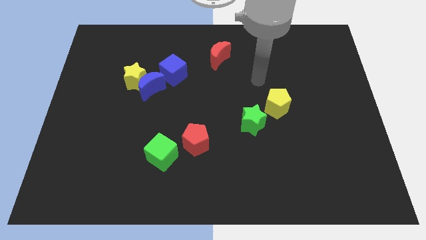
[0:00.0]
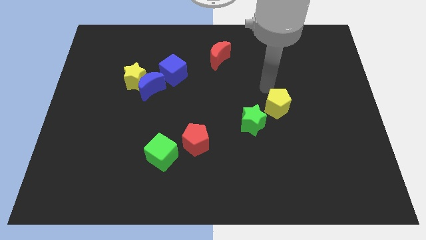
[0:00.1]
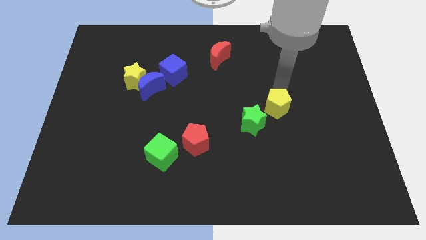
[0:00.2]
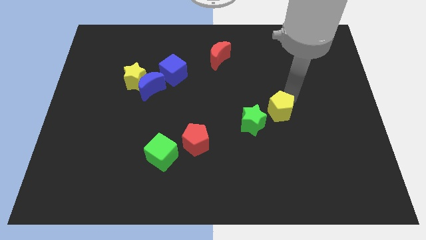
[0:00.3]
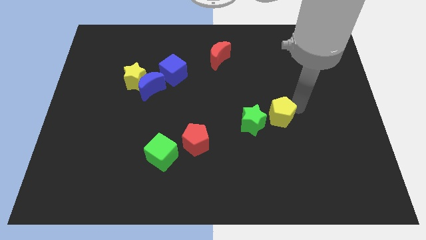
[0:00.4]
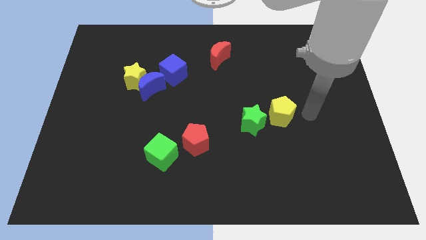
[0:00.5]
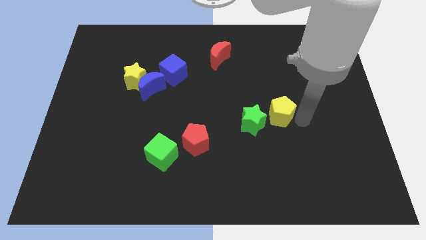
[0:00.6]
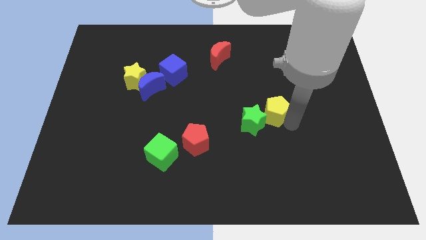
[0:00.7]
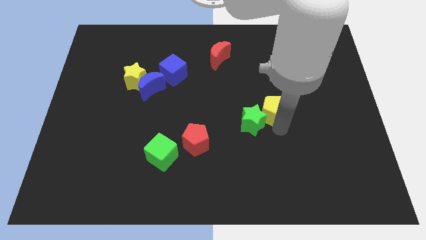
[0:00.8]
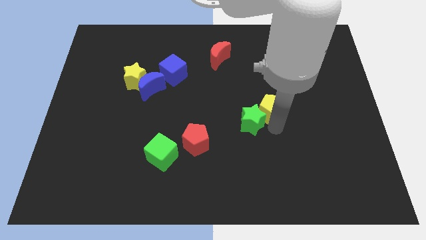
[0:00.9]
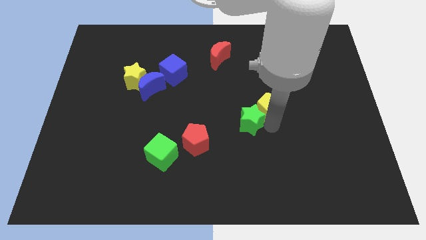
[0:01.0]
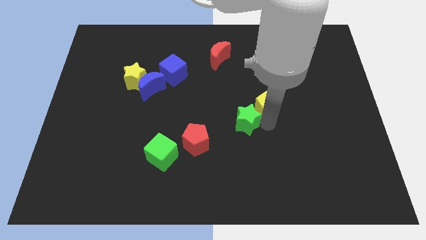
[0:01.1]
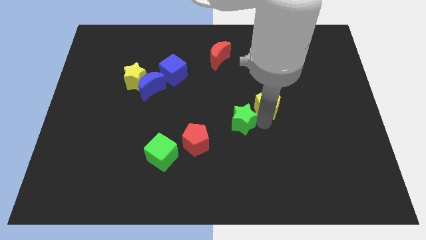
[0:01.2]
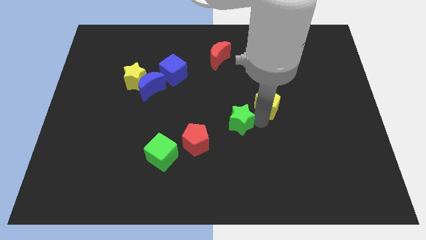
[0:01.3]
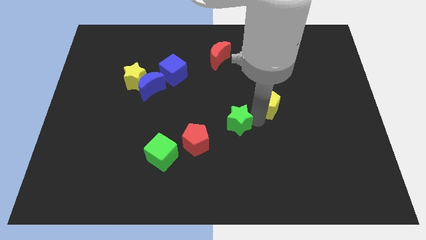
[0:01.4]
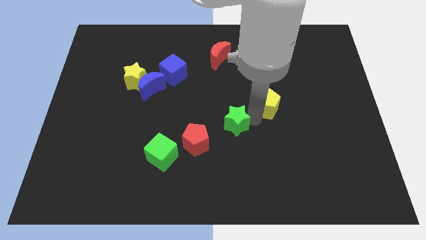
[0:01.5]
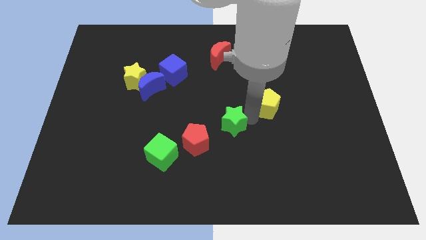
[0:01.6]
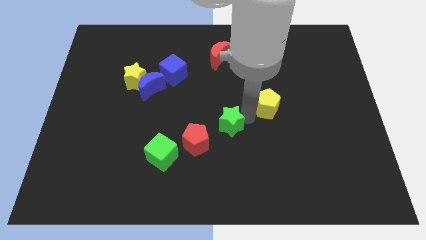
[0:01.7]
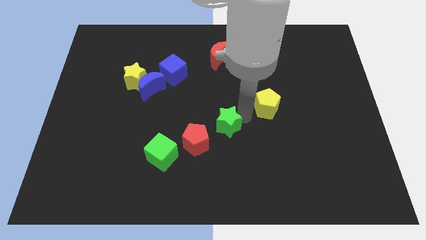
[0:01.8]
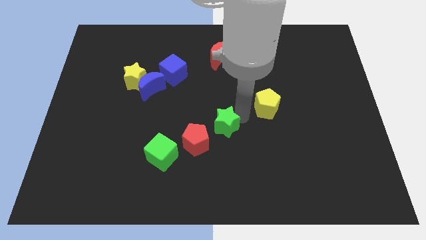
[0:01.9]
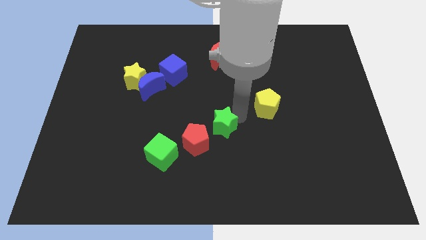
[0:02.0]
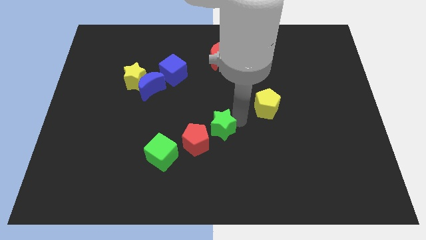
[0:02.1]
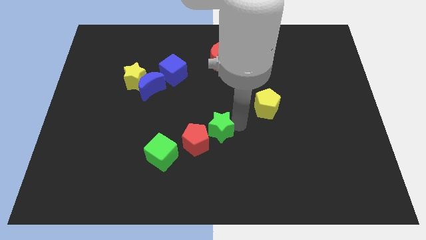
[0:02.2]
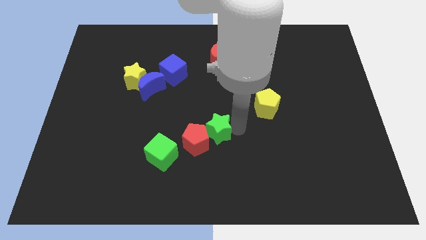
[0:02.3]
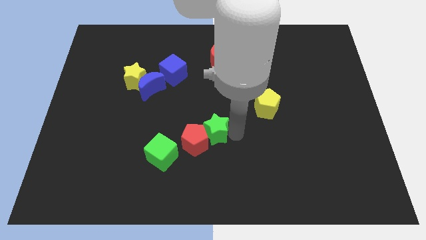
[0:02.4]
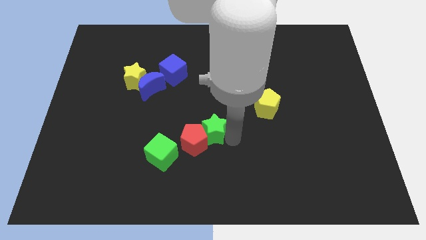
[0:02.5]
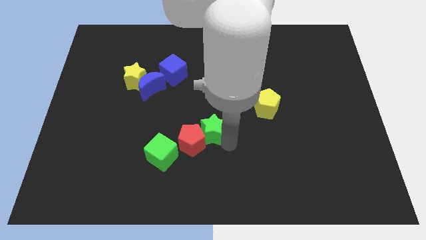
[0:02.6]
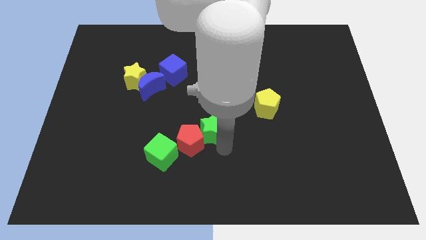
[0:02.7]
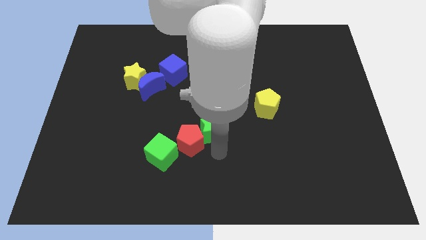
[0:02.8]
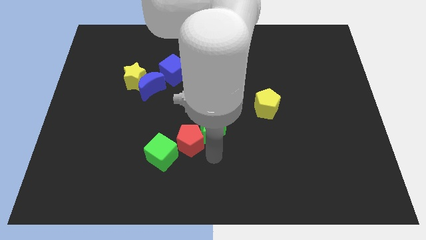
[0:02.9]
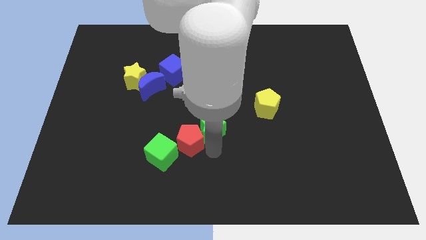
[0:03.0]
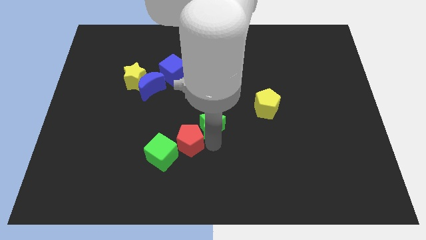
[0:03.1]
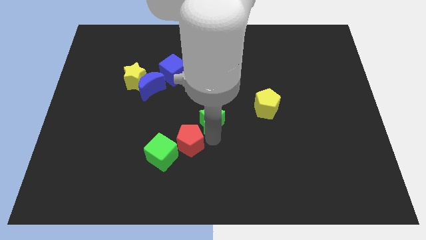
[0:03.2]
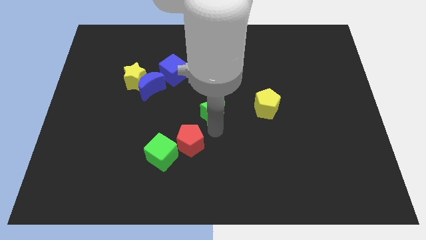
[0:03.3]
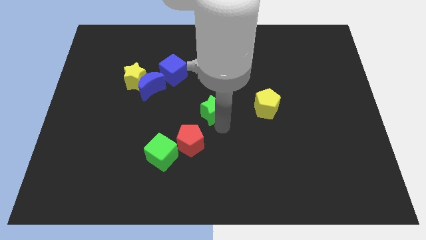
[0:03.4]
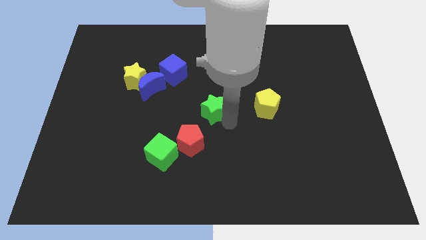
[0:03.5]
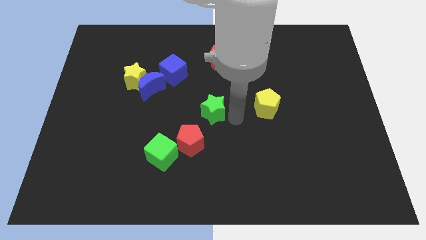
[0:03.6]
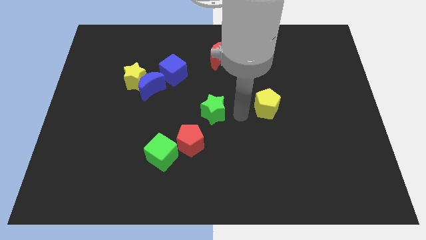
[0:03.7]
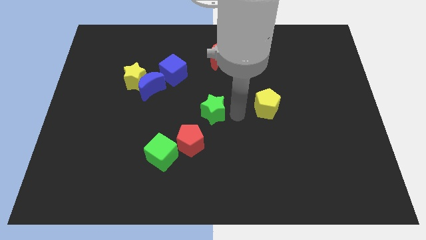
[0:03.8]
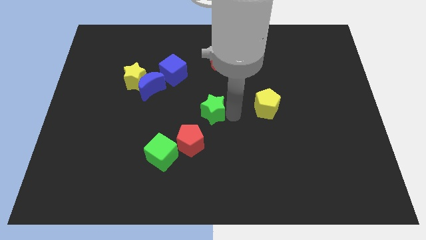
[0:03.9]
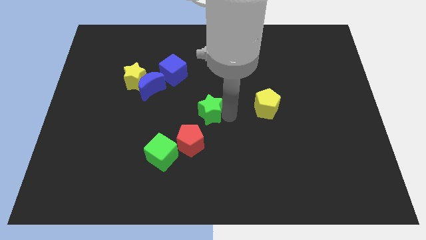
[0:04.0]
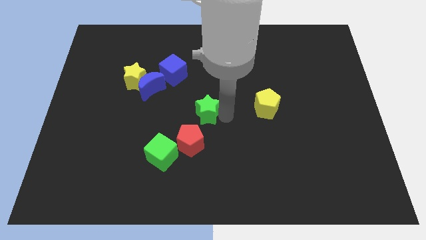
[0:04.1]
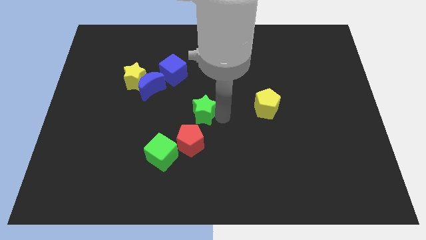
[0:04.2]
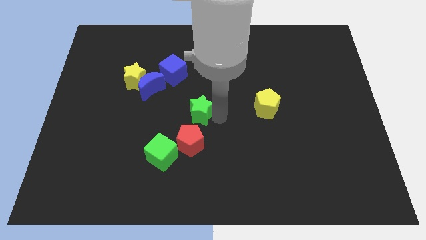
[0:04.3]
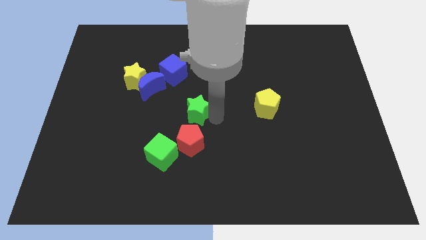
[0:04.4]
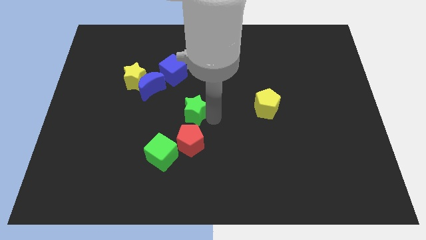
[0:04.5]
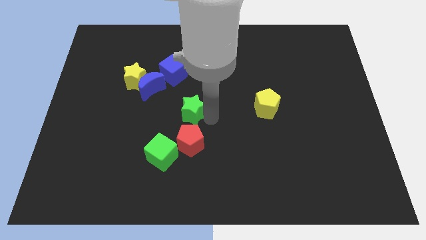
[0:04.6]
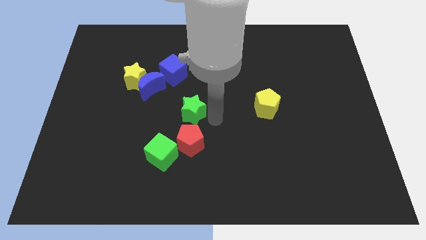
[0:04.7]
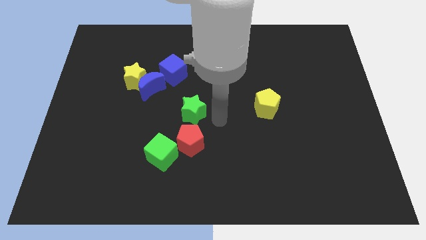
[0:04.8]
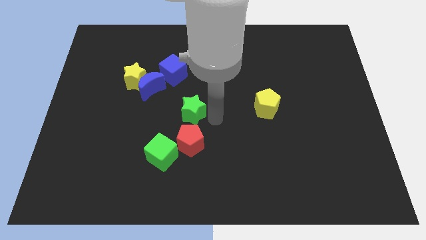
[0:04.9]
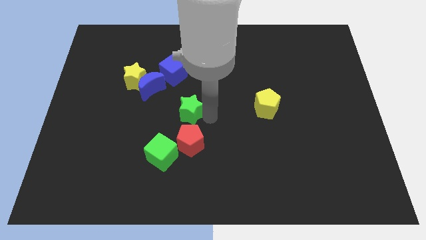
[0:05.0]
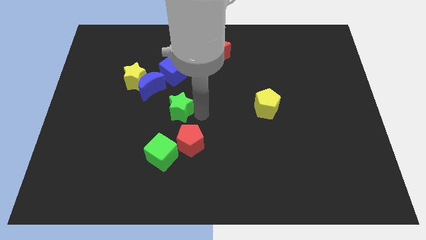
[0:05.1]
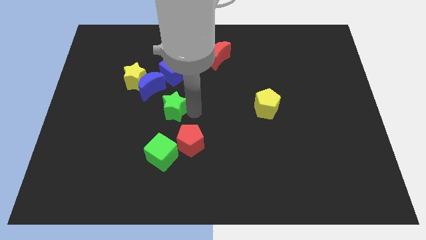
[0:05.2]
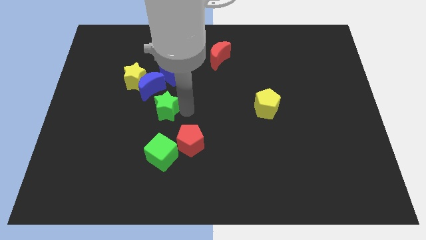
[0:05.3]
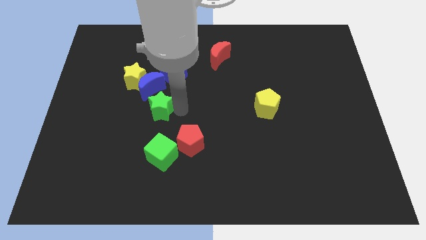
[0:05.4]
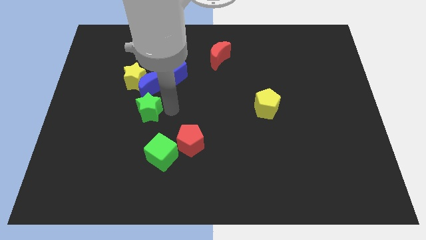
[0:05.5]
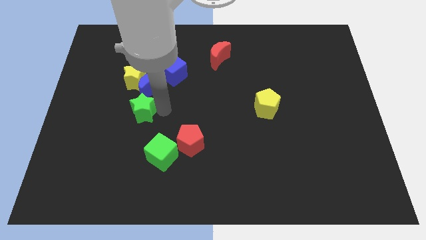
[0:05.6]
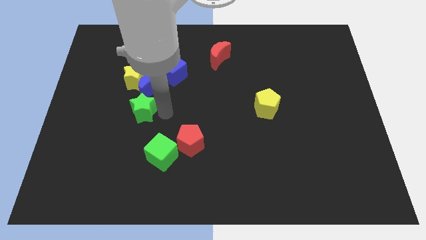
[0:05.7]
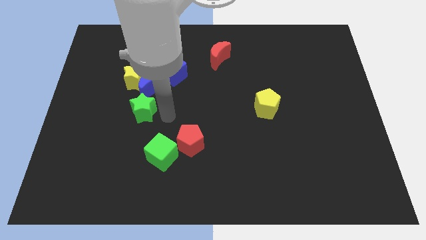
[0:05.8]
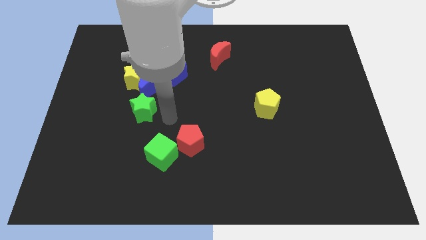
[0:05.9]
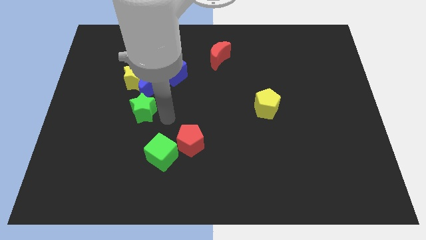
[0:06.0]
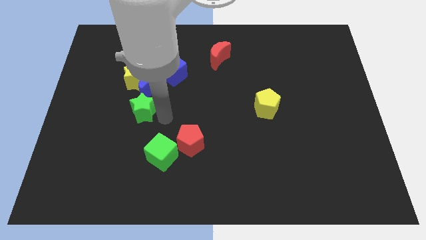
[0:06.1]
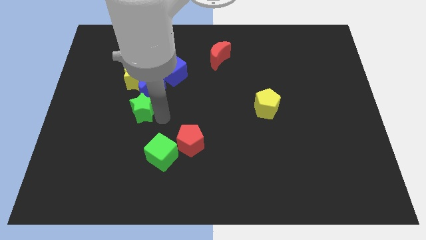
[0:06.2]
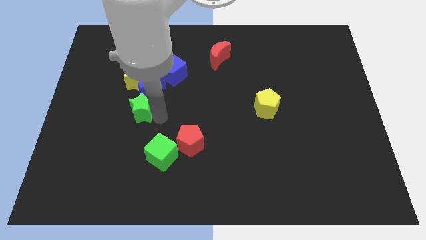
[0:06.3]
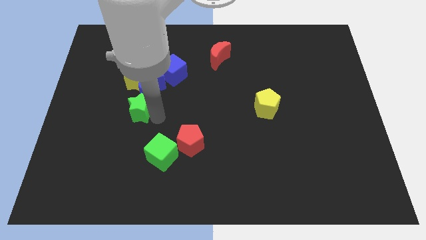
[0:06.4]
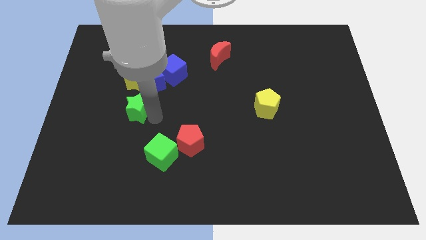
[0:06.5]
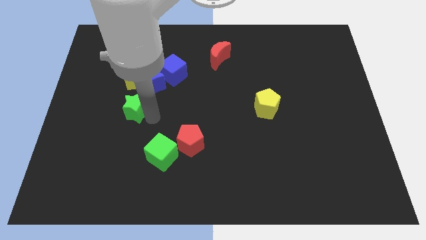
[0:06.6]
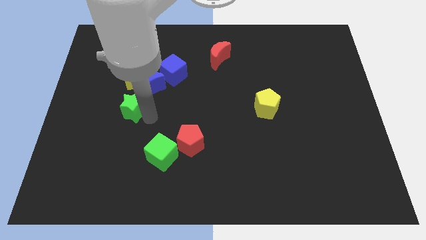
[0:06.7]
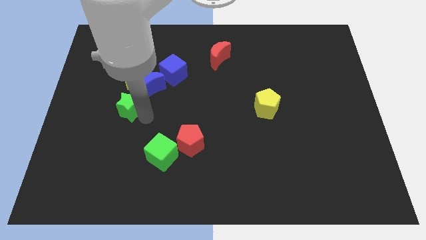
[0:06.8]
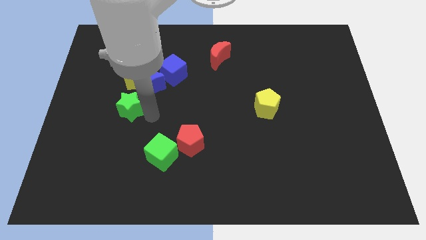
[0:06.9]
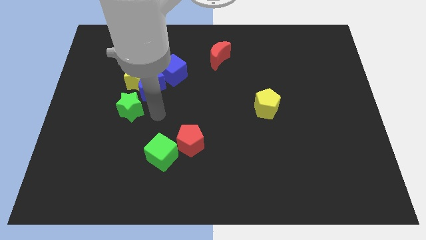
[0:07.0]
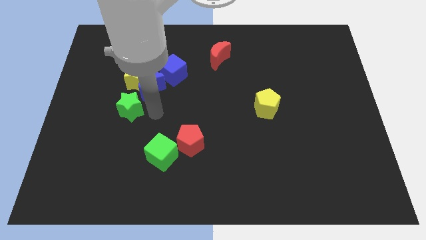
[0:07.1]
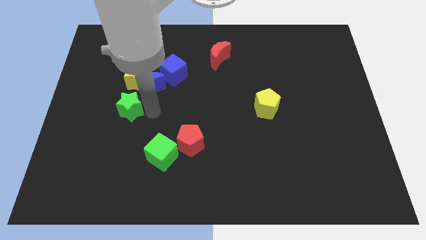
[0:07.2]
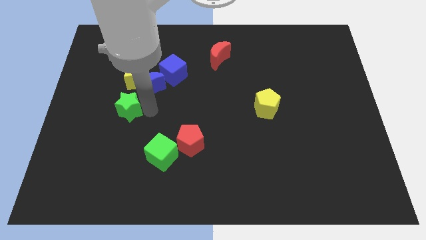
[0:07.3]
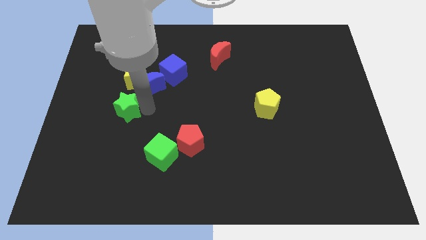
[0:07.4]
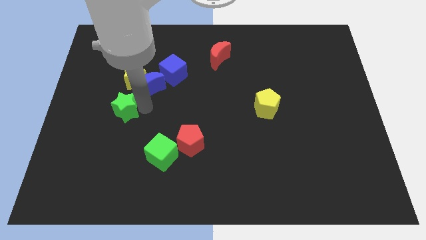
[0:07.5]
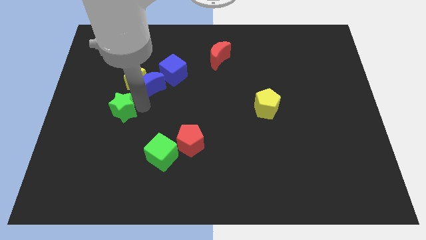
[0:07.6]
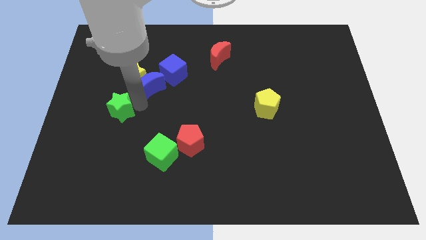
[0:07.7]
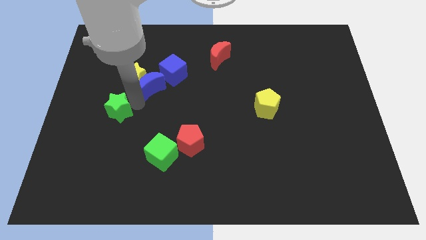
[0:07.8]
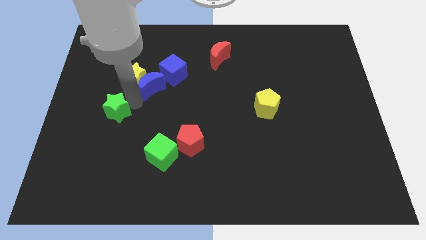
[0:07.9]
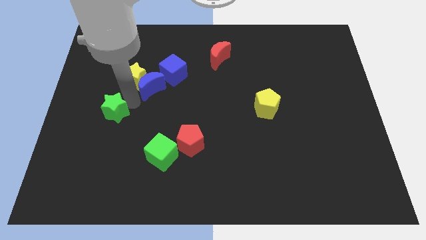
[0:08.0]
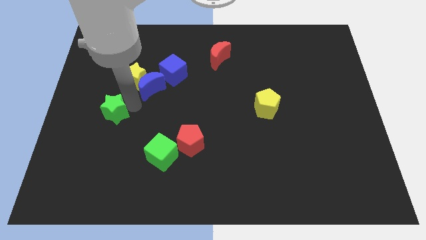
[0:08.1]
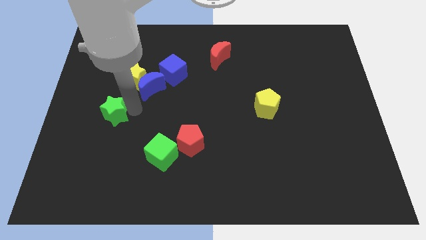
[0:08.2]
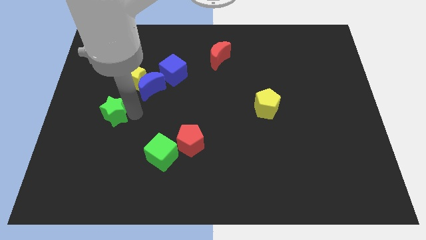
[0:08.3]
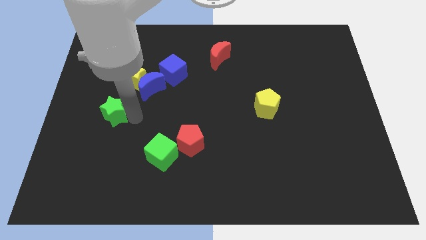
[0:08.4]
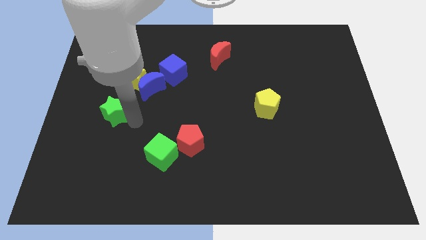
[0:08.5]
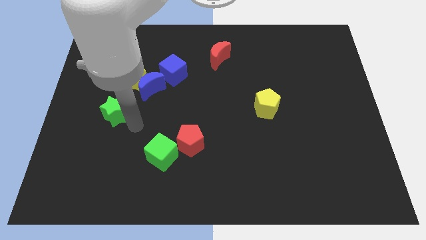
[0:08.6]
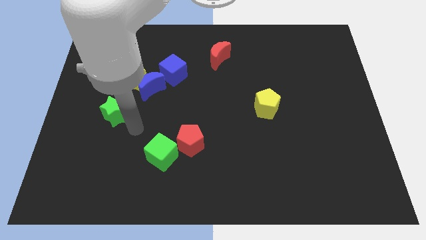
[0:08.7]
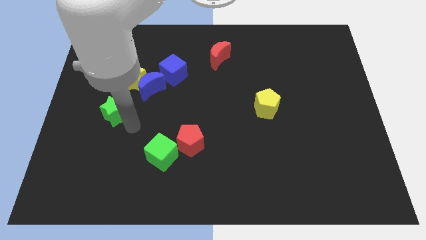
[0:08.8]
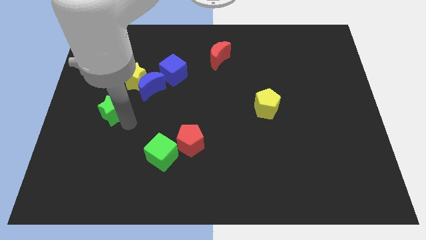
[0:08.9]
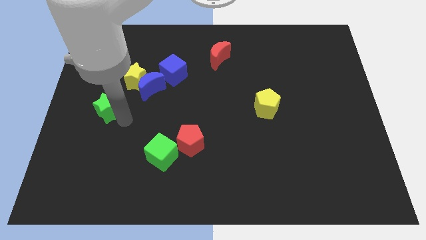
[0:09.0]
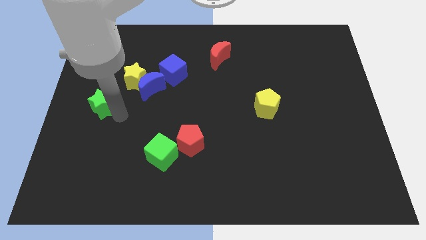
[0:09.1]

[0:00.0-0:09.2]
push the green star to the center left
